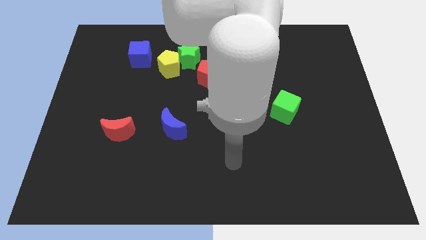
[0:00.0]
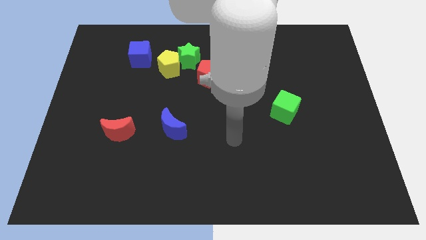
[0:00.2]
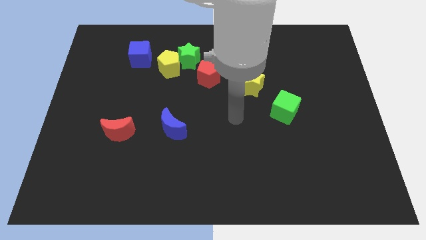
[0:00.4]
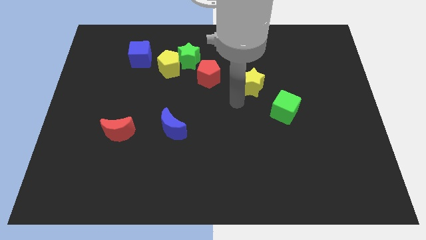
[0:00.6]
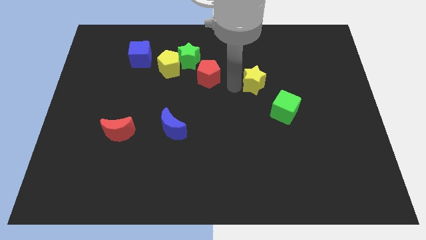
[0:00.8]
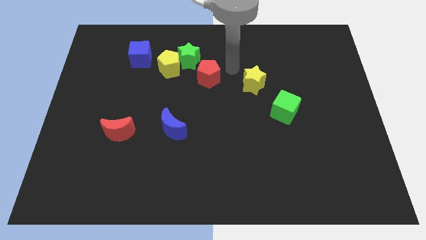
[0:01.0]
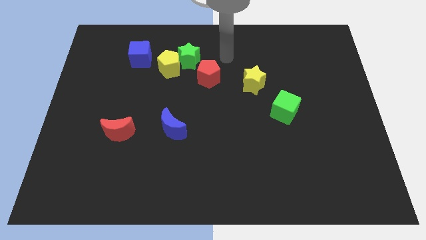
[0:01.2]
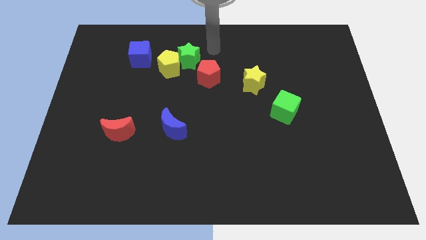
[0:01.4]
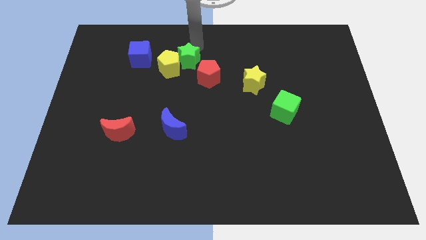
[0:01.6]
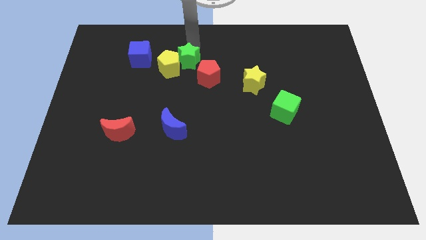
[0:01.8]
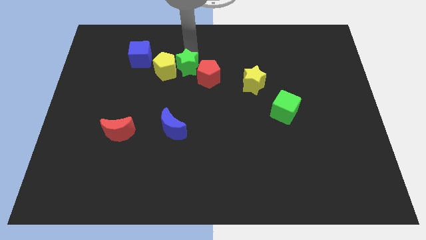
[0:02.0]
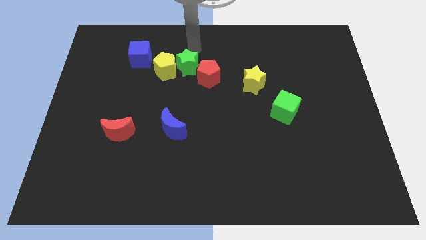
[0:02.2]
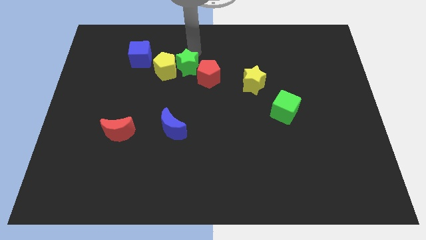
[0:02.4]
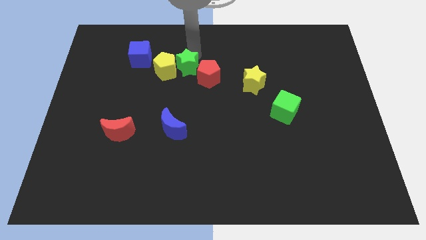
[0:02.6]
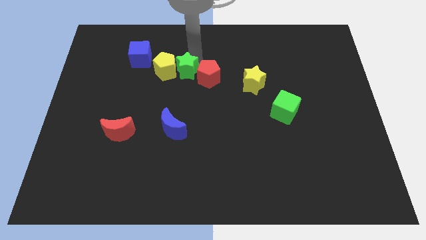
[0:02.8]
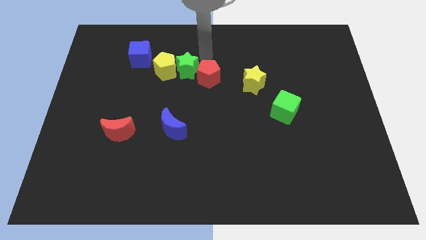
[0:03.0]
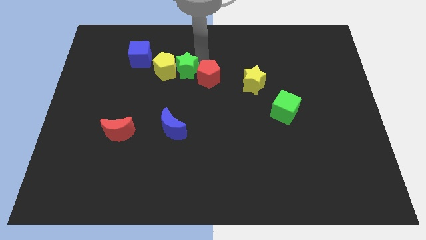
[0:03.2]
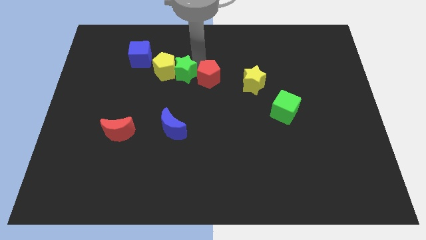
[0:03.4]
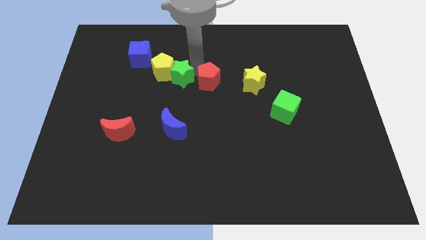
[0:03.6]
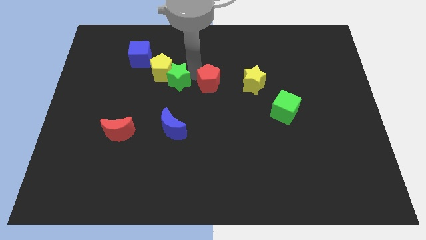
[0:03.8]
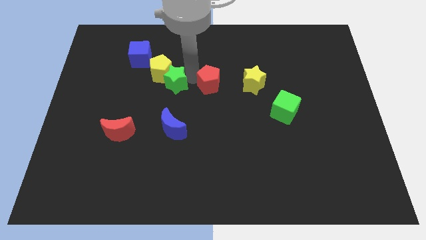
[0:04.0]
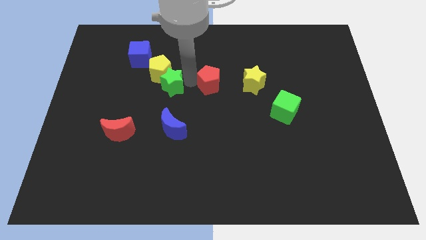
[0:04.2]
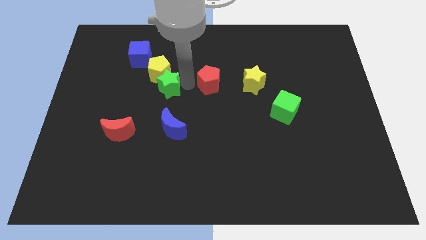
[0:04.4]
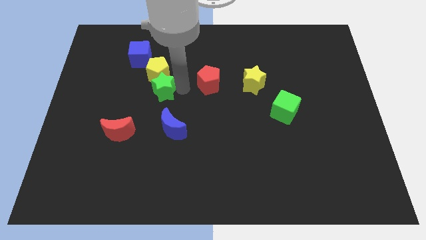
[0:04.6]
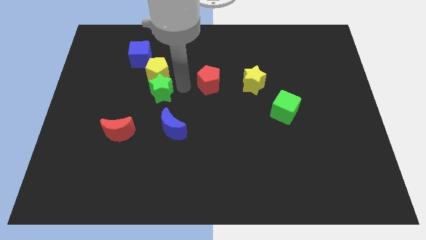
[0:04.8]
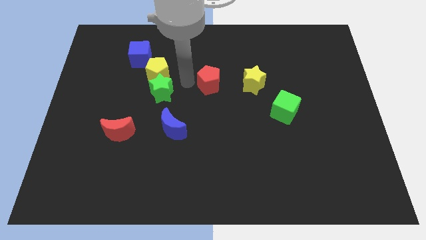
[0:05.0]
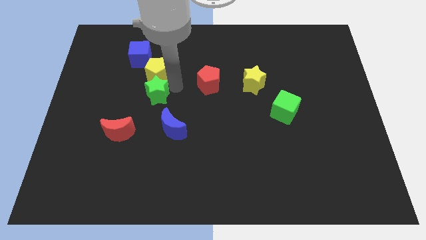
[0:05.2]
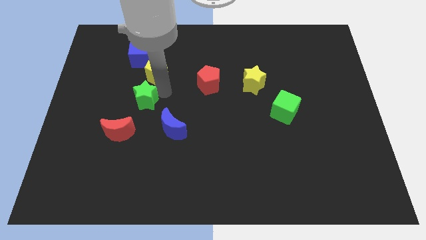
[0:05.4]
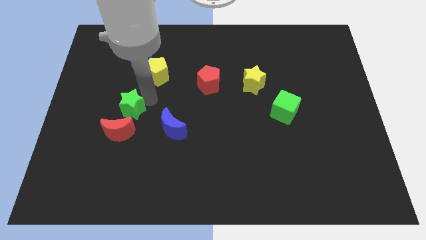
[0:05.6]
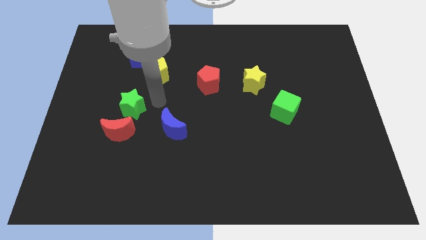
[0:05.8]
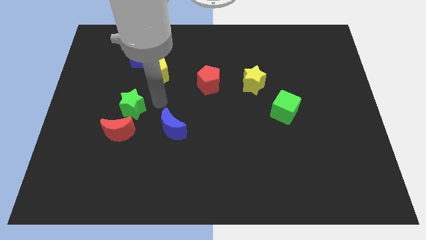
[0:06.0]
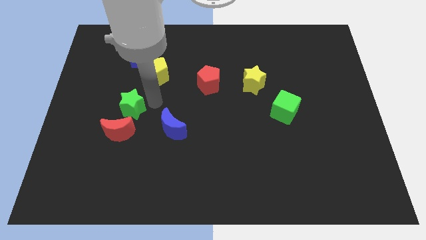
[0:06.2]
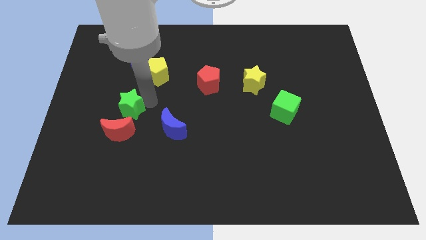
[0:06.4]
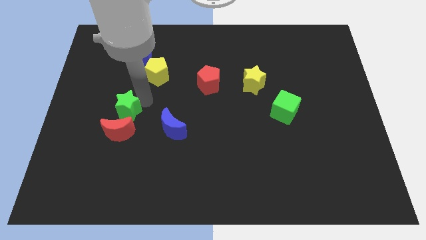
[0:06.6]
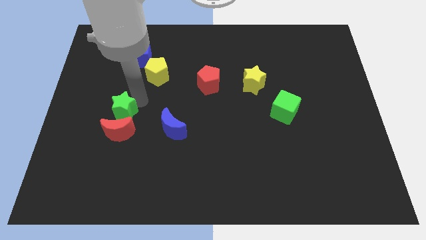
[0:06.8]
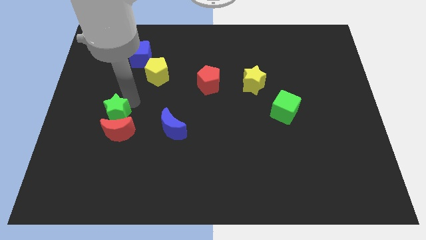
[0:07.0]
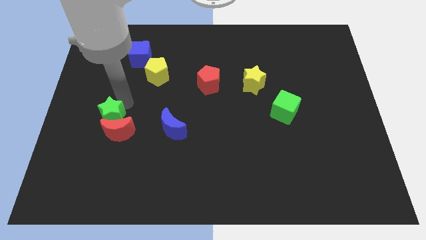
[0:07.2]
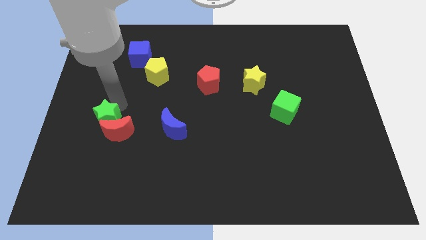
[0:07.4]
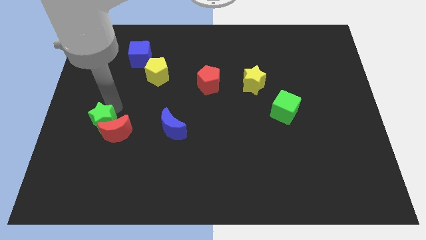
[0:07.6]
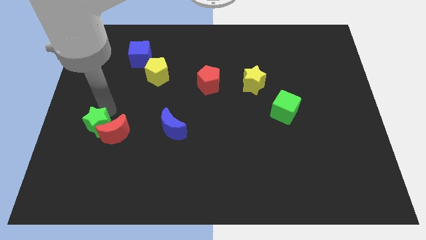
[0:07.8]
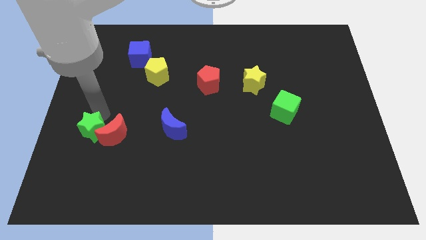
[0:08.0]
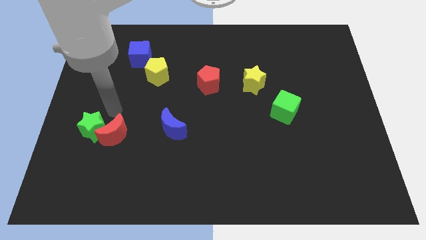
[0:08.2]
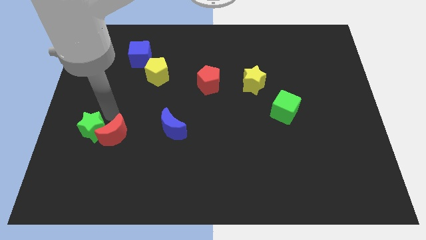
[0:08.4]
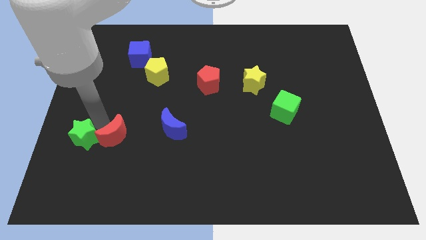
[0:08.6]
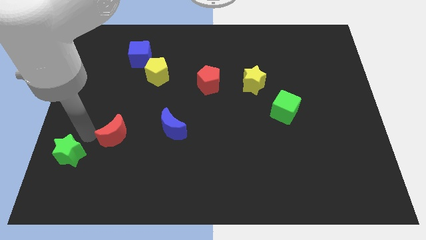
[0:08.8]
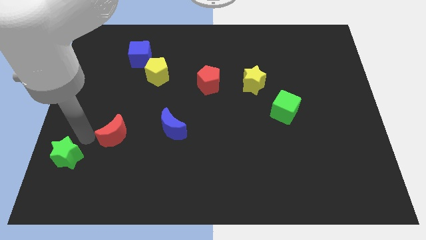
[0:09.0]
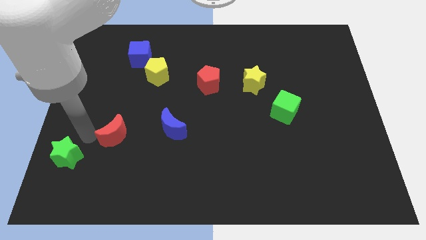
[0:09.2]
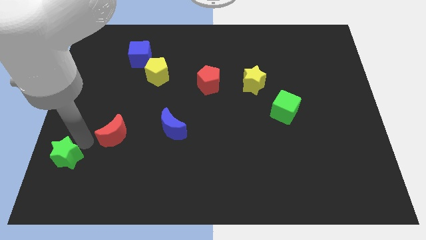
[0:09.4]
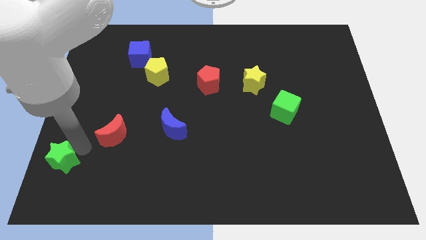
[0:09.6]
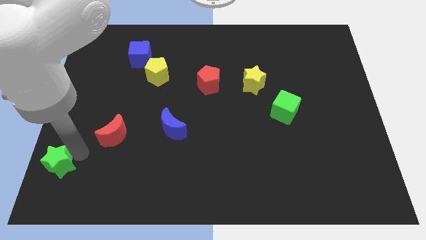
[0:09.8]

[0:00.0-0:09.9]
put the green star to the bottom left corner
